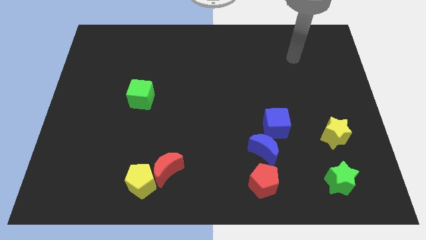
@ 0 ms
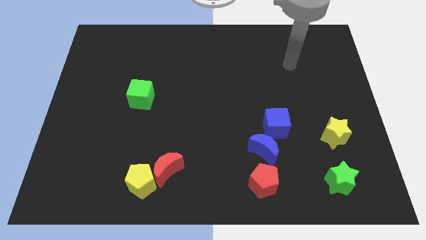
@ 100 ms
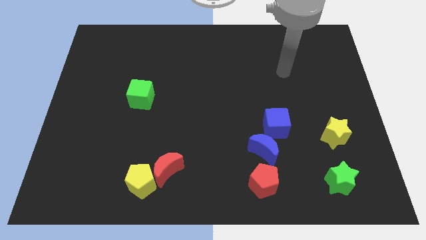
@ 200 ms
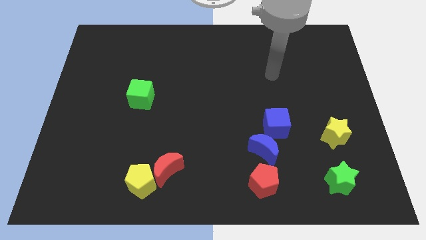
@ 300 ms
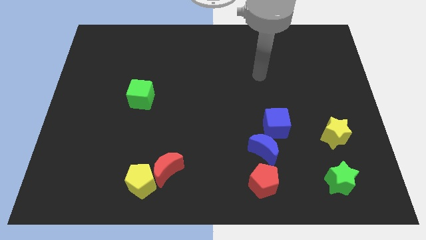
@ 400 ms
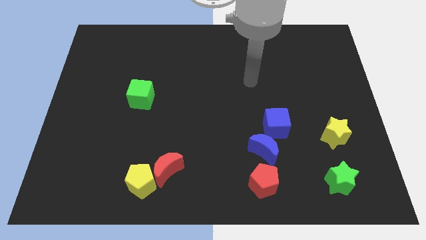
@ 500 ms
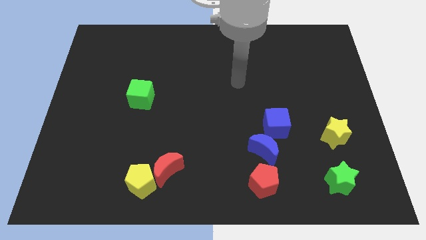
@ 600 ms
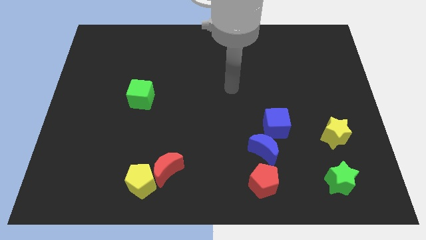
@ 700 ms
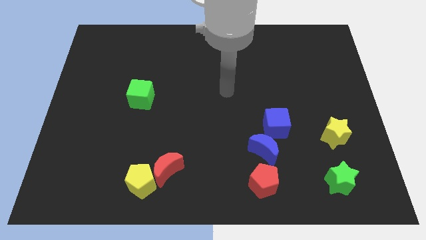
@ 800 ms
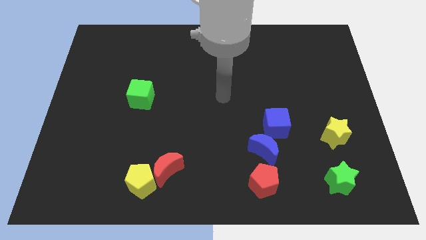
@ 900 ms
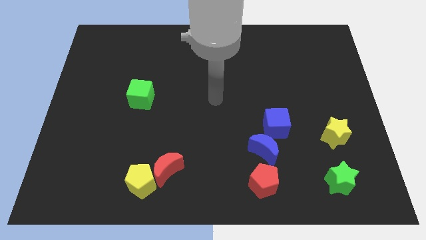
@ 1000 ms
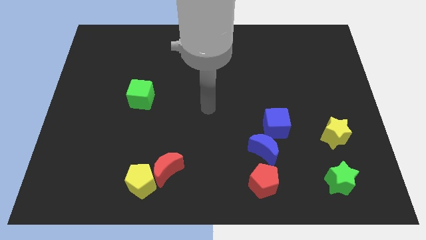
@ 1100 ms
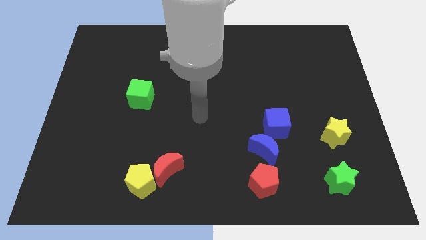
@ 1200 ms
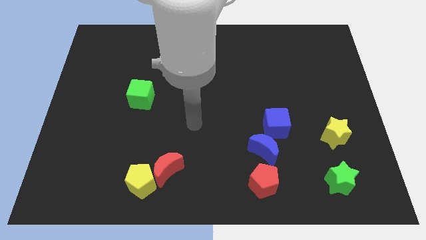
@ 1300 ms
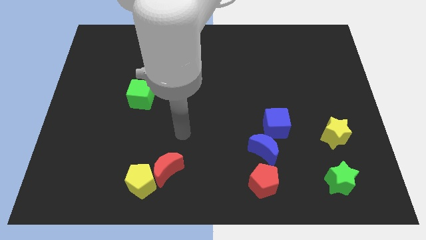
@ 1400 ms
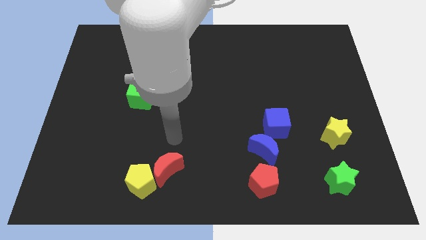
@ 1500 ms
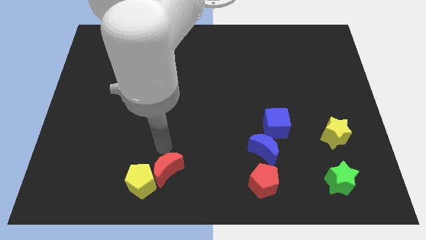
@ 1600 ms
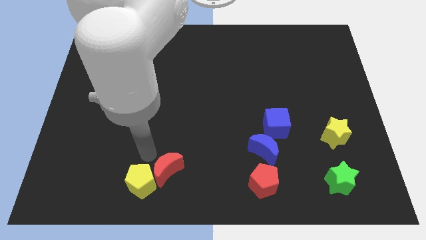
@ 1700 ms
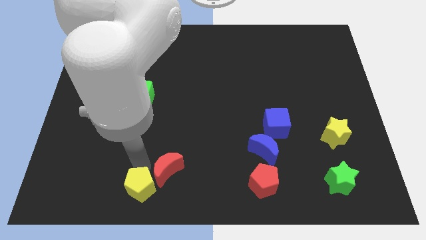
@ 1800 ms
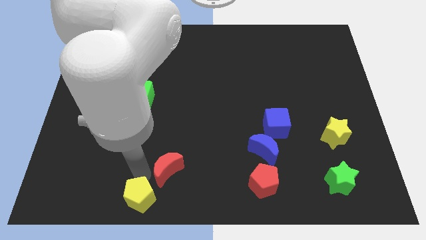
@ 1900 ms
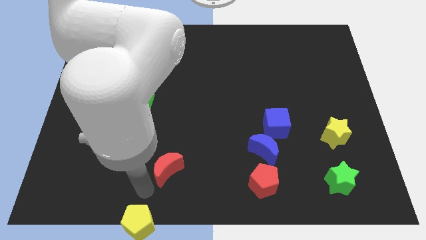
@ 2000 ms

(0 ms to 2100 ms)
move the red moon away from the yellow pentagon

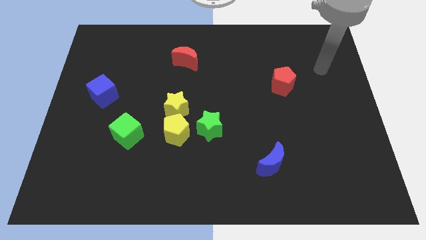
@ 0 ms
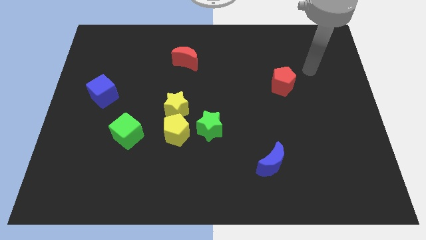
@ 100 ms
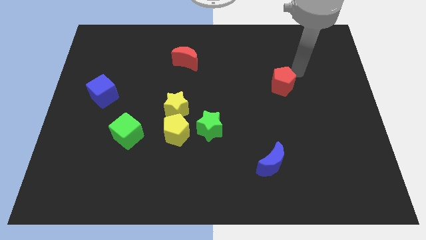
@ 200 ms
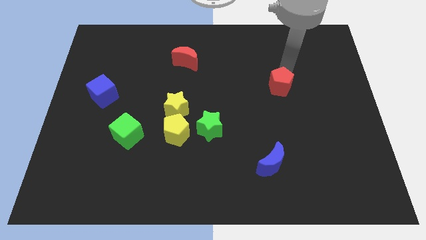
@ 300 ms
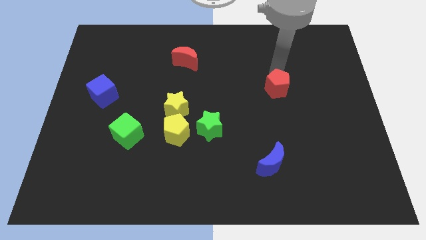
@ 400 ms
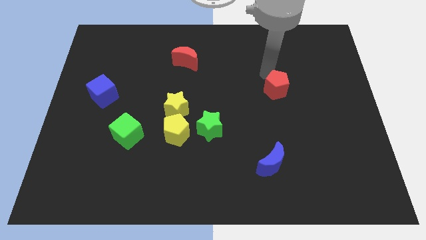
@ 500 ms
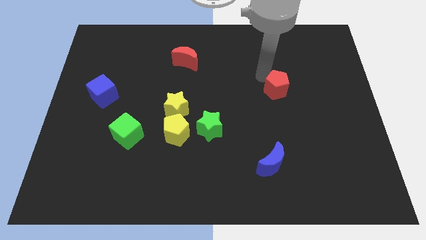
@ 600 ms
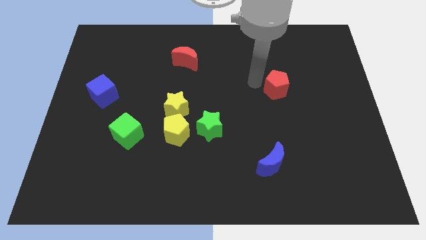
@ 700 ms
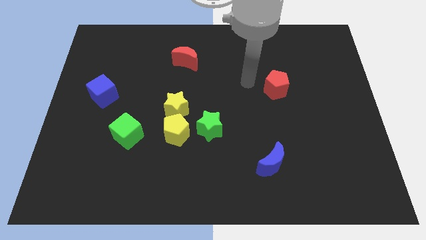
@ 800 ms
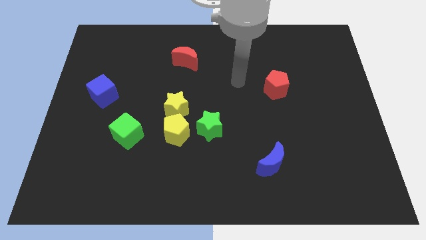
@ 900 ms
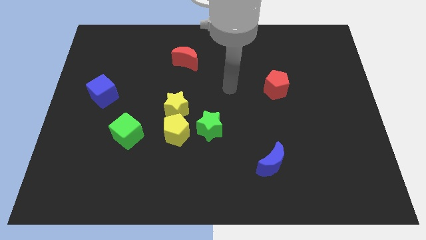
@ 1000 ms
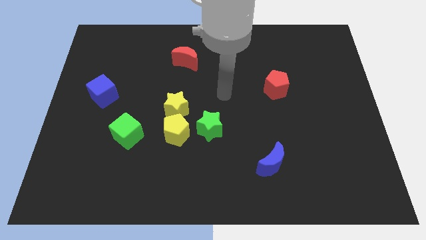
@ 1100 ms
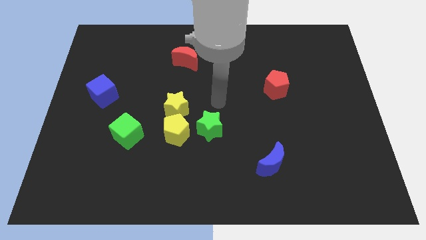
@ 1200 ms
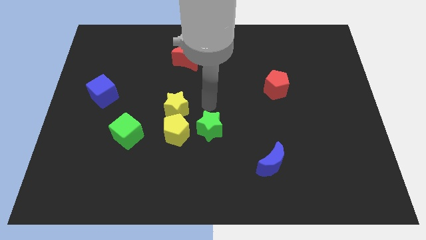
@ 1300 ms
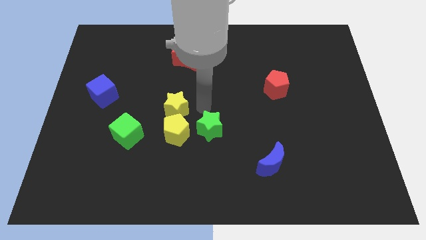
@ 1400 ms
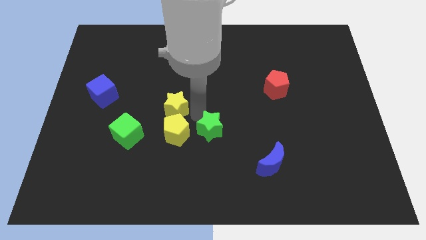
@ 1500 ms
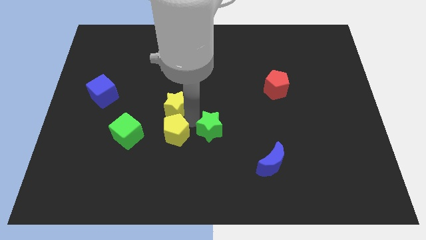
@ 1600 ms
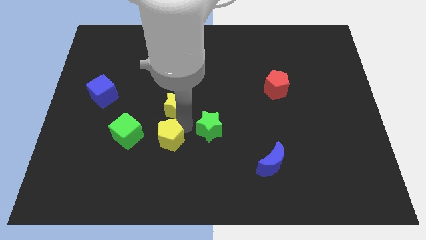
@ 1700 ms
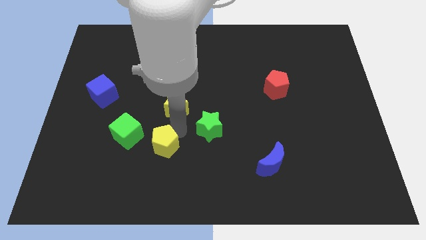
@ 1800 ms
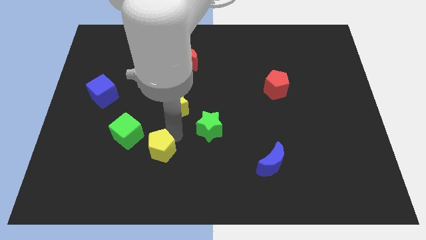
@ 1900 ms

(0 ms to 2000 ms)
separate the yellow pentagon from the yellow star and green star

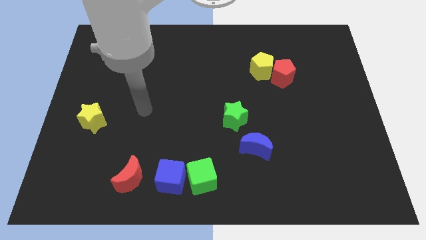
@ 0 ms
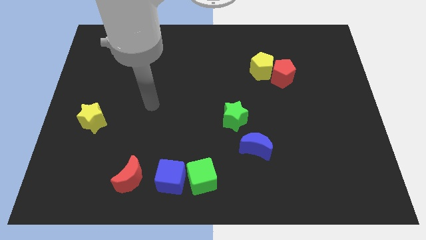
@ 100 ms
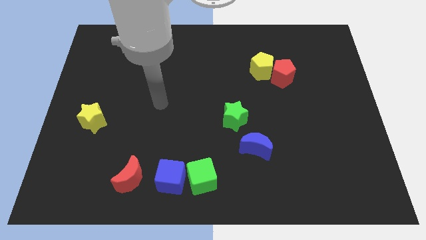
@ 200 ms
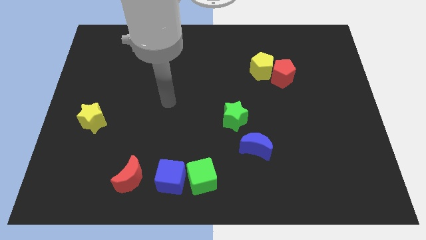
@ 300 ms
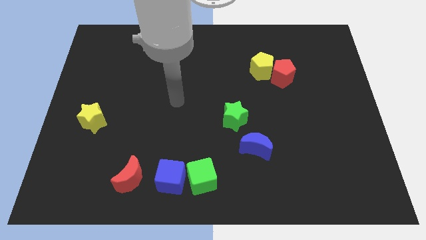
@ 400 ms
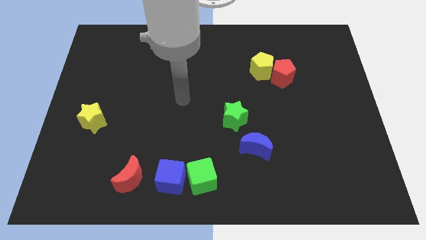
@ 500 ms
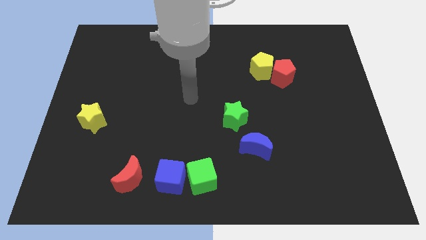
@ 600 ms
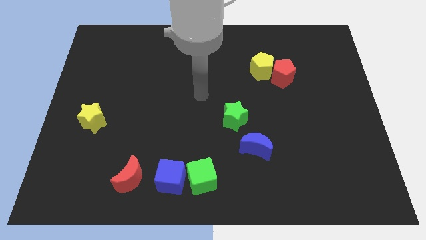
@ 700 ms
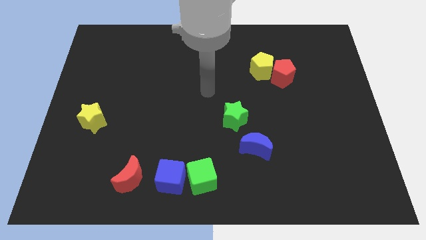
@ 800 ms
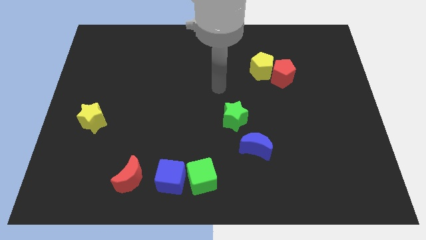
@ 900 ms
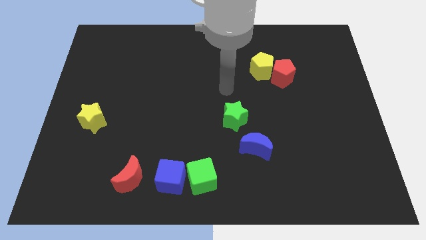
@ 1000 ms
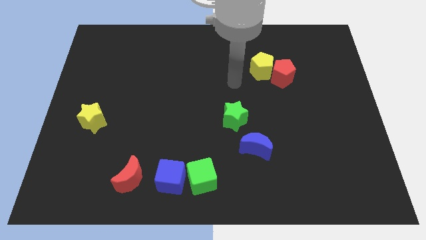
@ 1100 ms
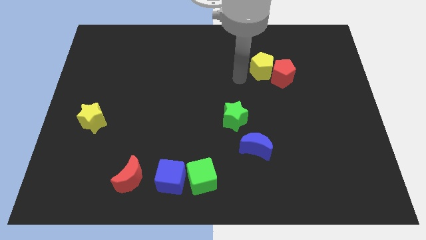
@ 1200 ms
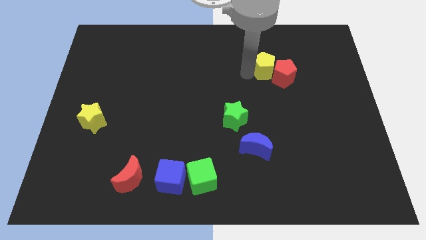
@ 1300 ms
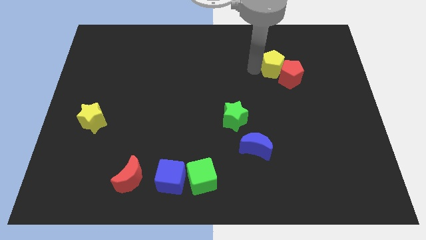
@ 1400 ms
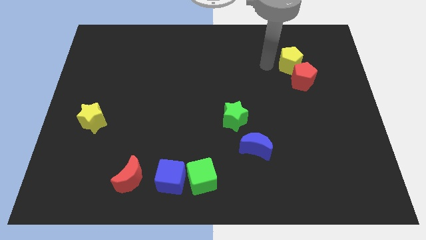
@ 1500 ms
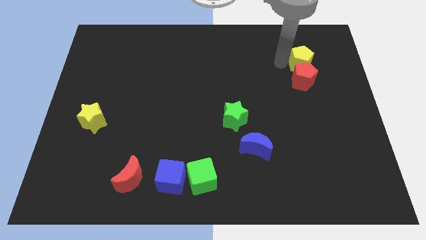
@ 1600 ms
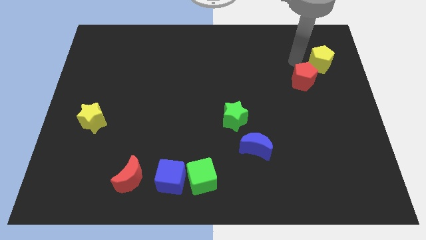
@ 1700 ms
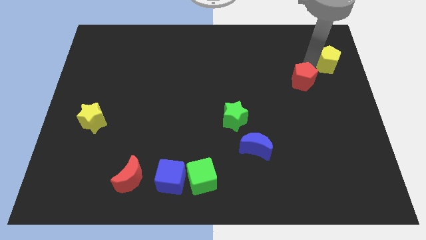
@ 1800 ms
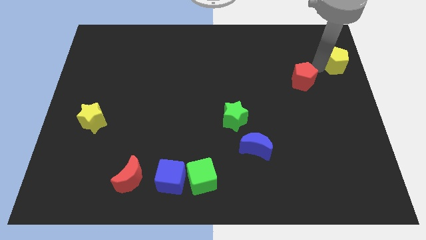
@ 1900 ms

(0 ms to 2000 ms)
move the red pentagon away from the yellow pentagon

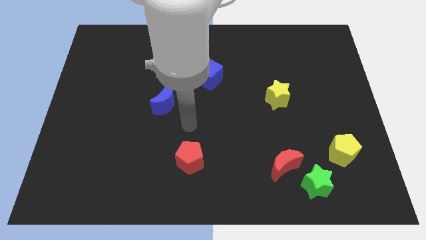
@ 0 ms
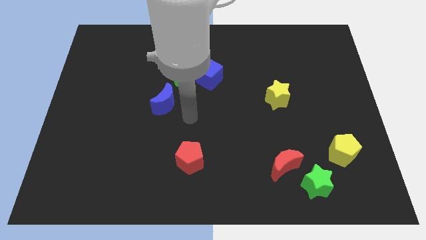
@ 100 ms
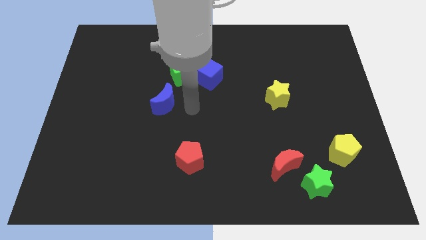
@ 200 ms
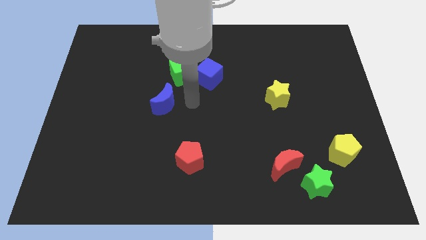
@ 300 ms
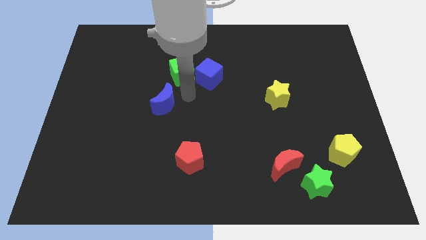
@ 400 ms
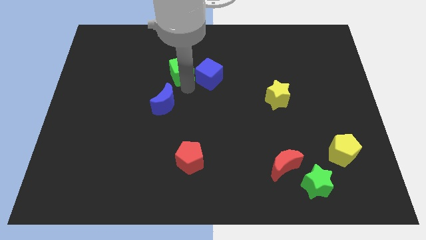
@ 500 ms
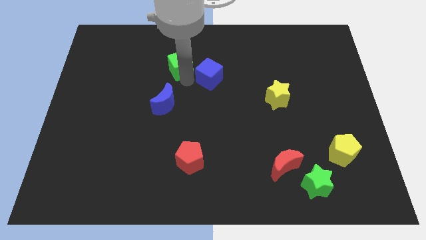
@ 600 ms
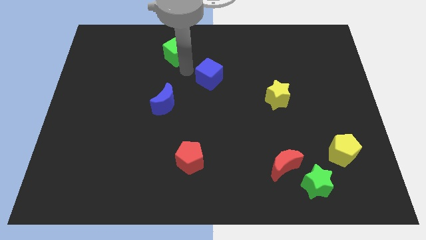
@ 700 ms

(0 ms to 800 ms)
pull the blue cube apart from the green cube

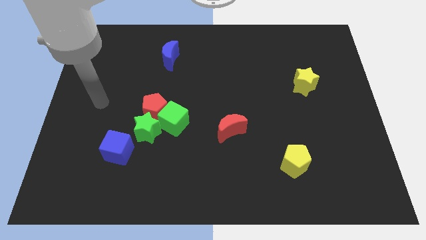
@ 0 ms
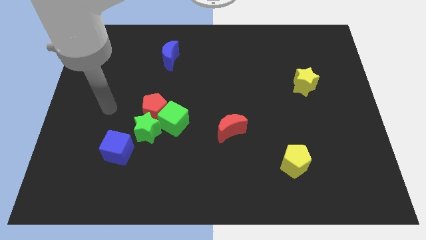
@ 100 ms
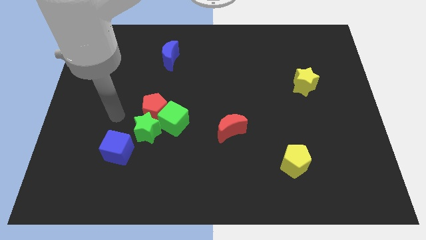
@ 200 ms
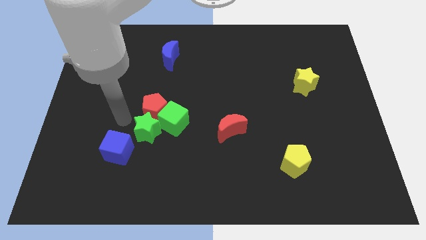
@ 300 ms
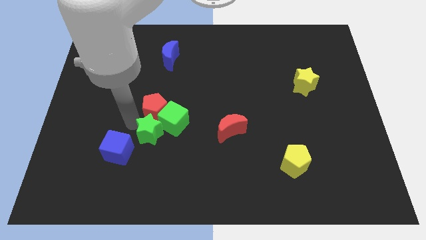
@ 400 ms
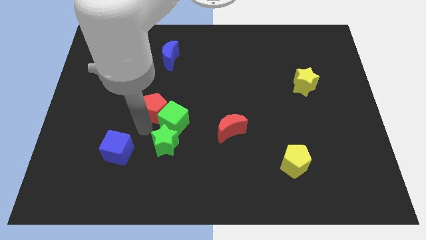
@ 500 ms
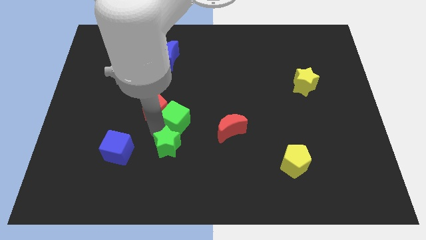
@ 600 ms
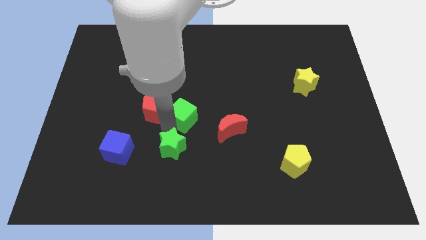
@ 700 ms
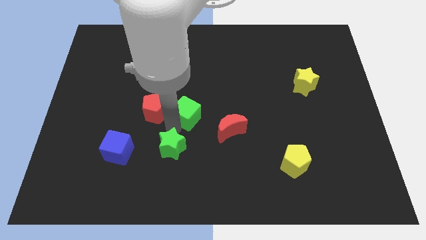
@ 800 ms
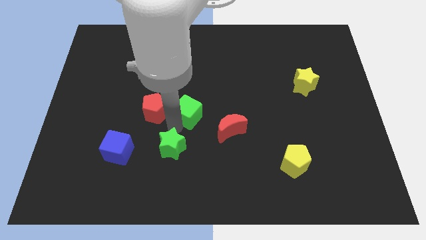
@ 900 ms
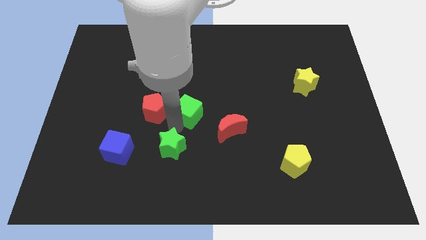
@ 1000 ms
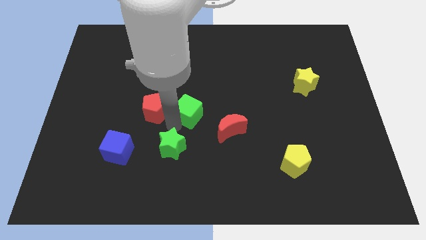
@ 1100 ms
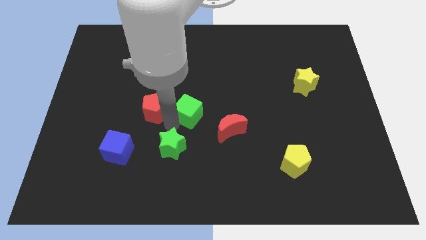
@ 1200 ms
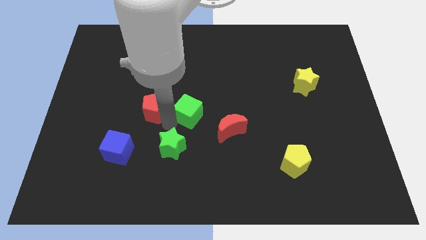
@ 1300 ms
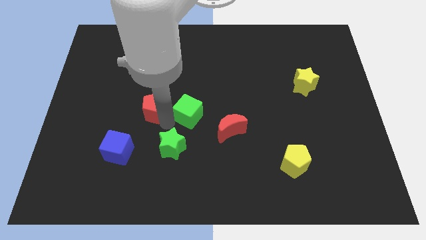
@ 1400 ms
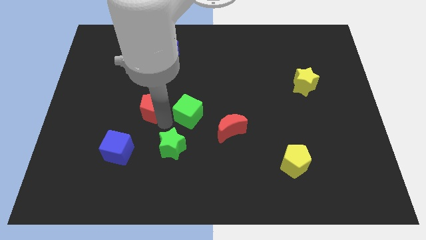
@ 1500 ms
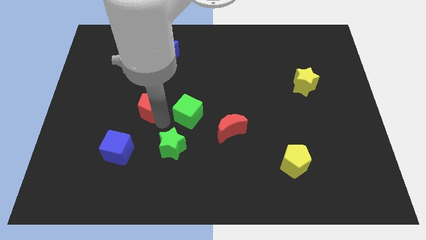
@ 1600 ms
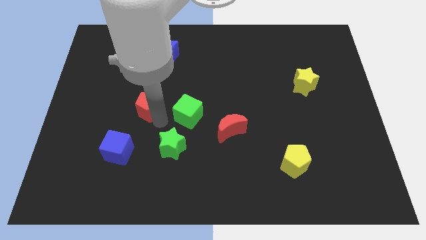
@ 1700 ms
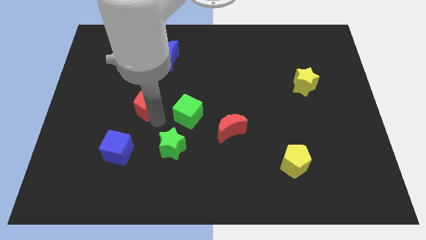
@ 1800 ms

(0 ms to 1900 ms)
separate the red pentagon from the green cube and green star

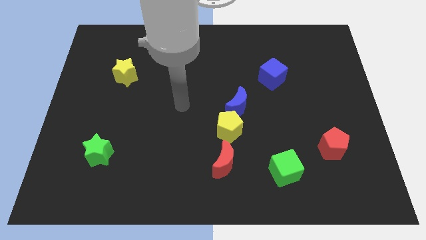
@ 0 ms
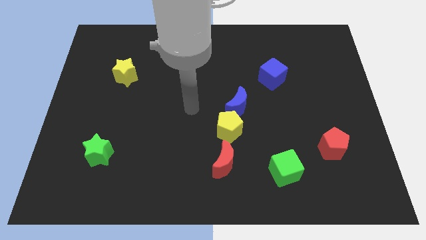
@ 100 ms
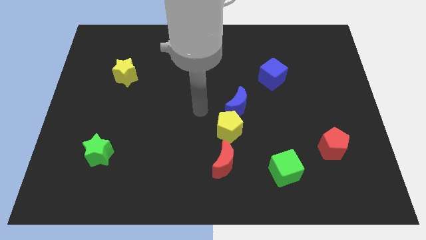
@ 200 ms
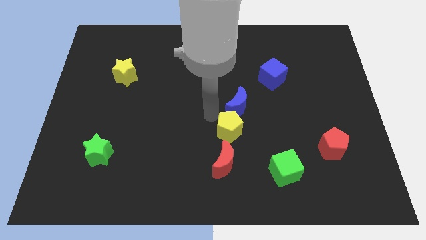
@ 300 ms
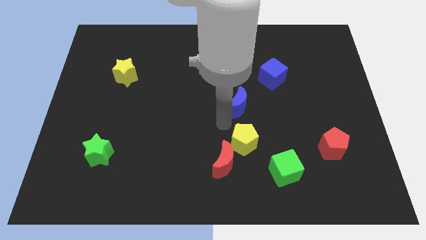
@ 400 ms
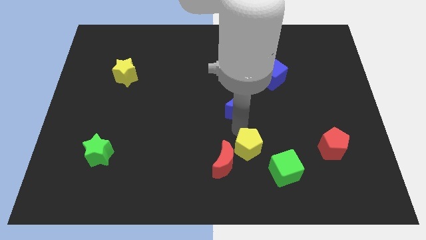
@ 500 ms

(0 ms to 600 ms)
pull the blue moon apart from the yellow pentagon

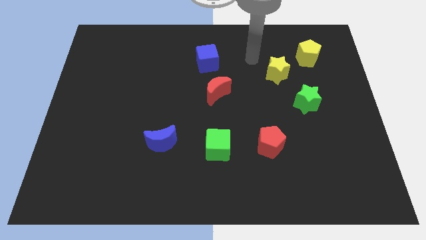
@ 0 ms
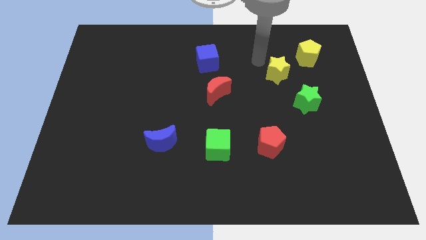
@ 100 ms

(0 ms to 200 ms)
separate the yellow star from the yellow pentagon
